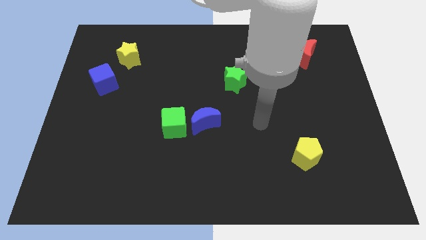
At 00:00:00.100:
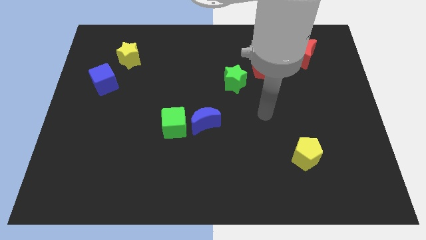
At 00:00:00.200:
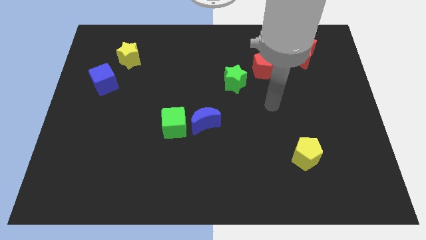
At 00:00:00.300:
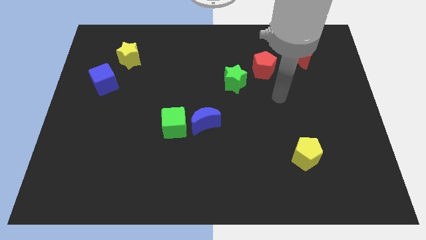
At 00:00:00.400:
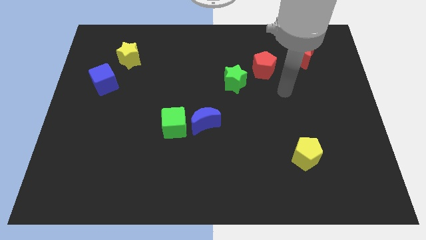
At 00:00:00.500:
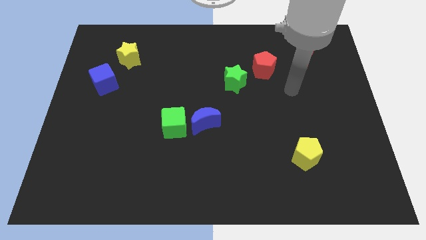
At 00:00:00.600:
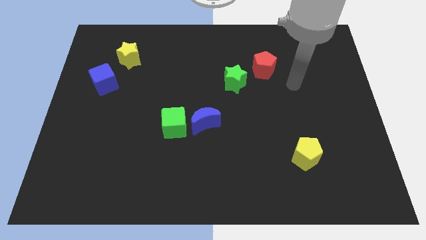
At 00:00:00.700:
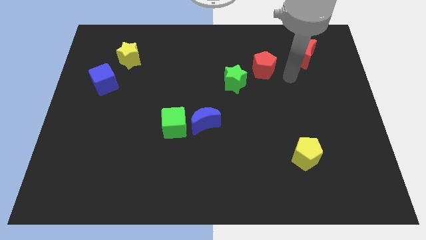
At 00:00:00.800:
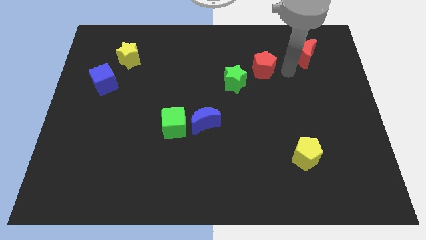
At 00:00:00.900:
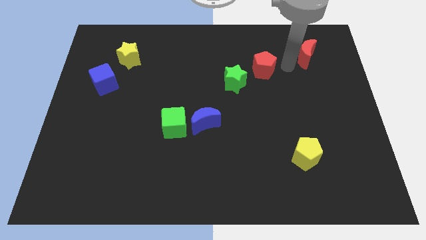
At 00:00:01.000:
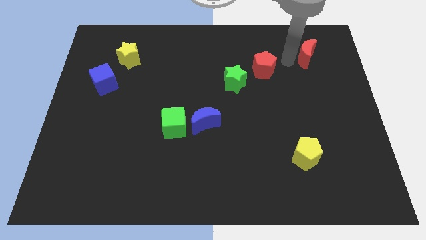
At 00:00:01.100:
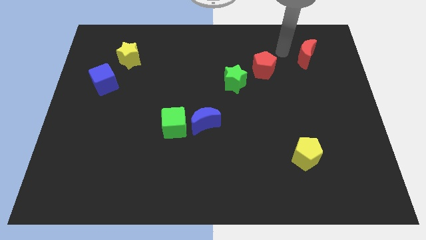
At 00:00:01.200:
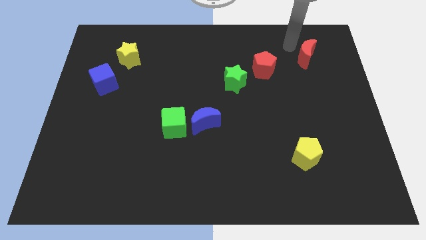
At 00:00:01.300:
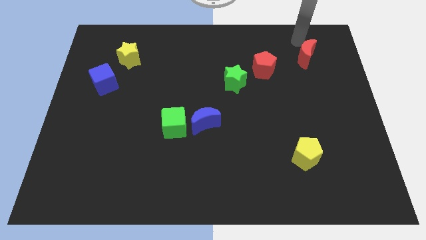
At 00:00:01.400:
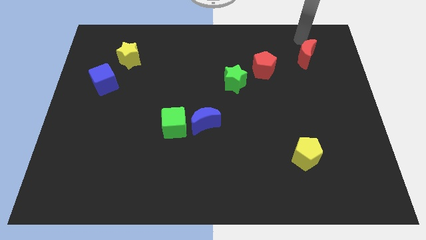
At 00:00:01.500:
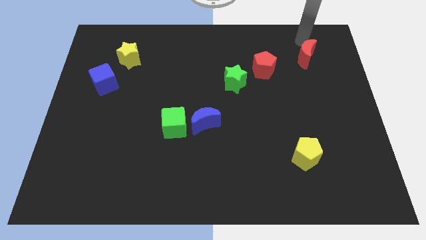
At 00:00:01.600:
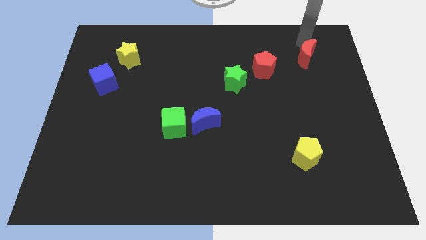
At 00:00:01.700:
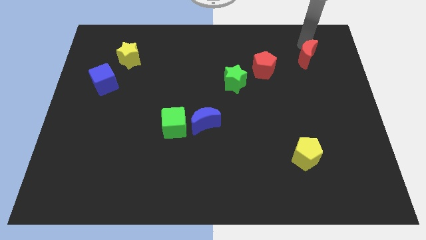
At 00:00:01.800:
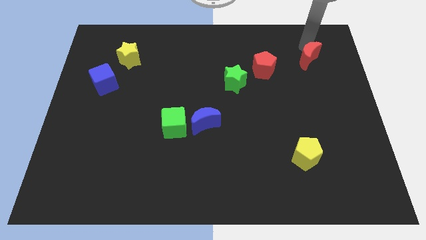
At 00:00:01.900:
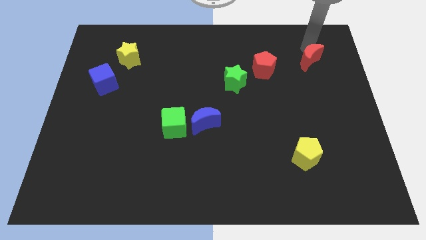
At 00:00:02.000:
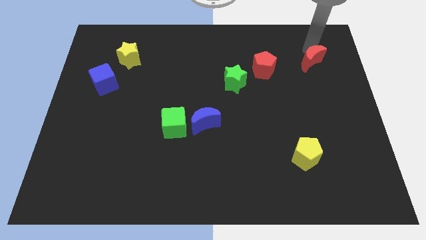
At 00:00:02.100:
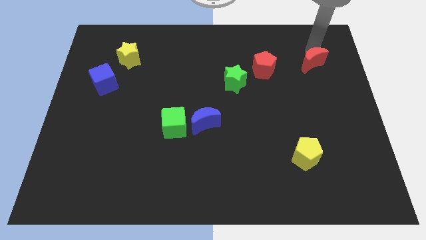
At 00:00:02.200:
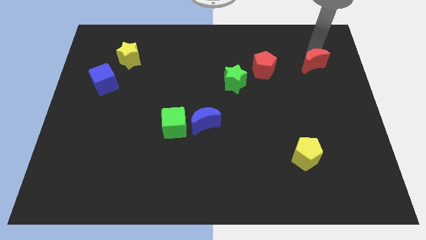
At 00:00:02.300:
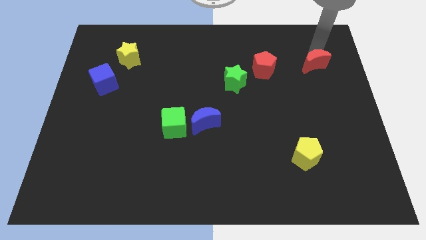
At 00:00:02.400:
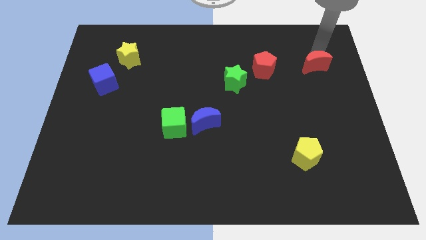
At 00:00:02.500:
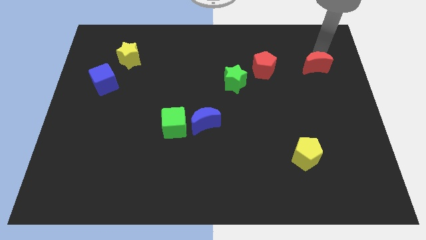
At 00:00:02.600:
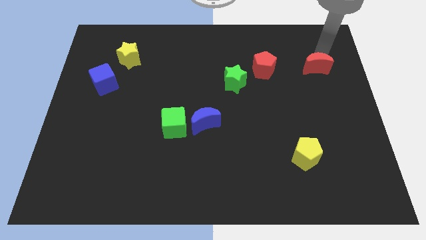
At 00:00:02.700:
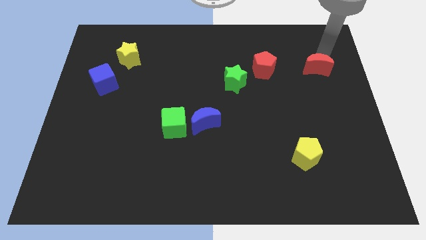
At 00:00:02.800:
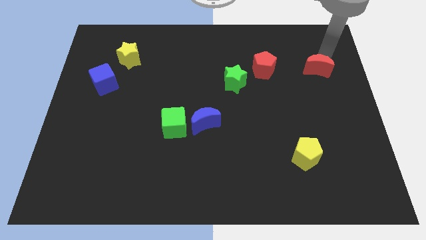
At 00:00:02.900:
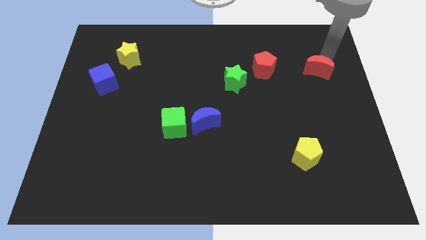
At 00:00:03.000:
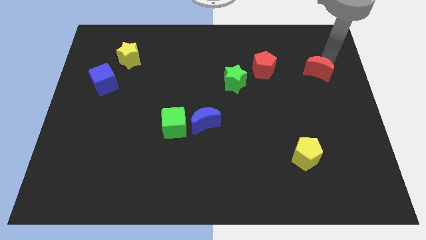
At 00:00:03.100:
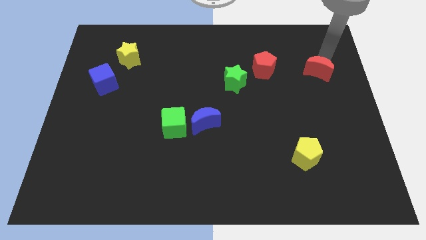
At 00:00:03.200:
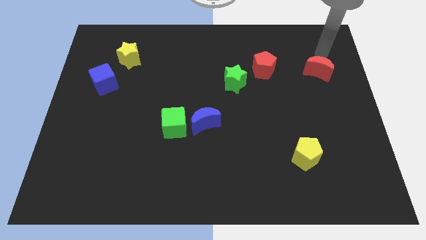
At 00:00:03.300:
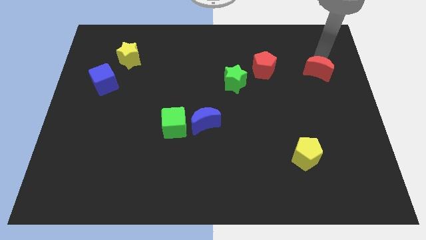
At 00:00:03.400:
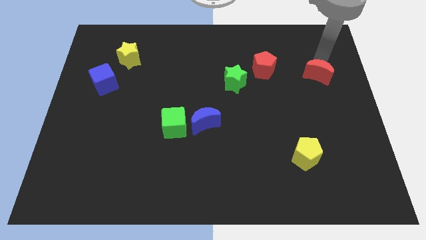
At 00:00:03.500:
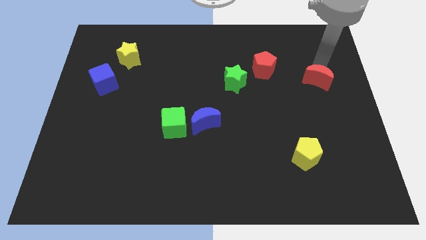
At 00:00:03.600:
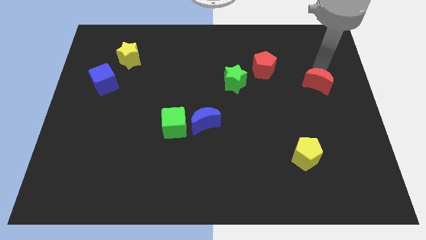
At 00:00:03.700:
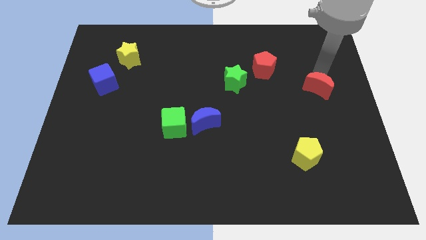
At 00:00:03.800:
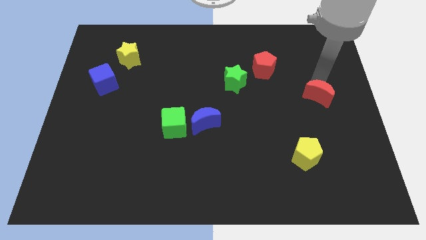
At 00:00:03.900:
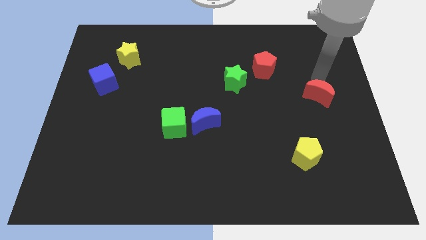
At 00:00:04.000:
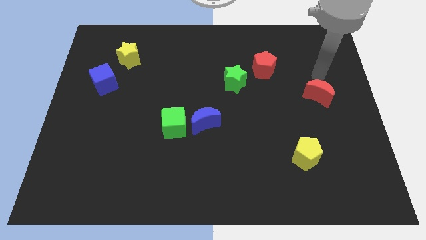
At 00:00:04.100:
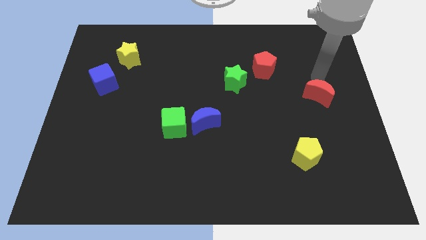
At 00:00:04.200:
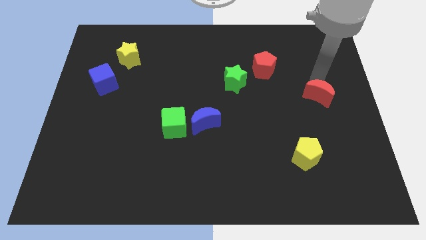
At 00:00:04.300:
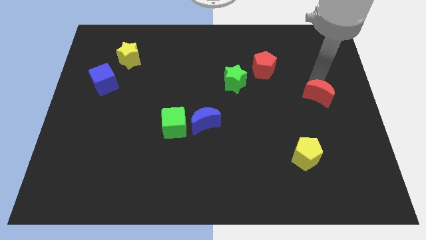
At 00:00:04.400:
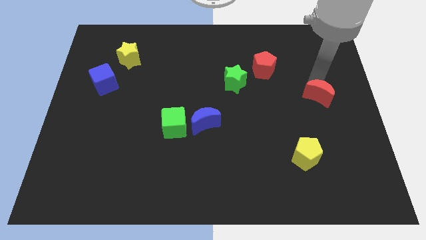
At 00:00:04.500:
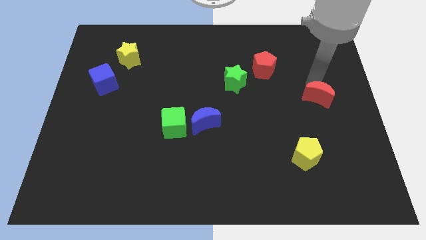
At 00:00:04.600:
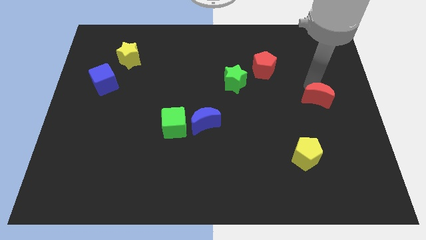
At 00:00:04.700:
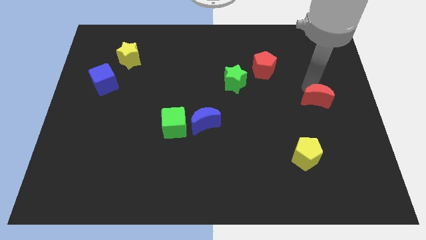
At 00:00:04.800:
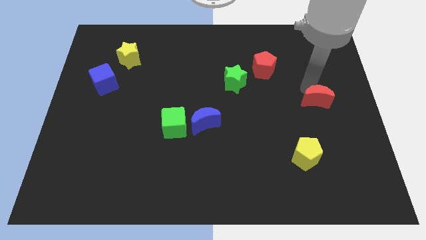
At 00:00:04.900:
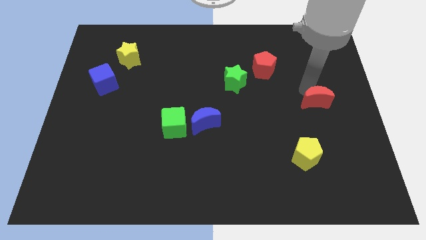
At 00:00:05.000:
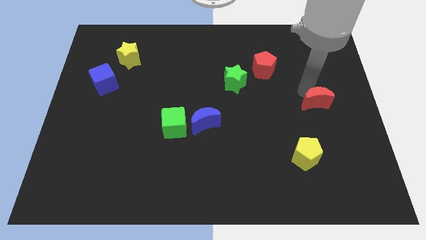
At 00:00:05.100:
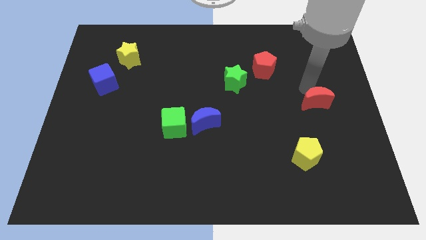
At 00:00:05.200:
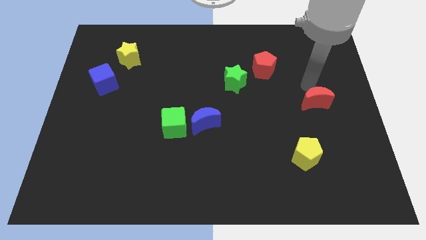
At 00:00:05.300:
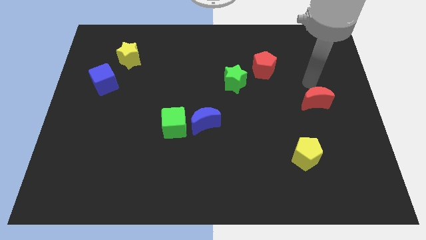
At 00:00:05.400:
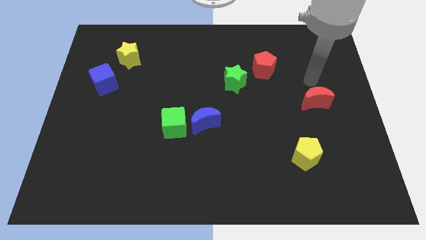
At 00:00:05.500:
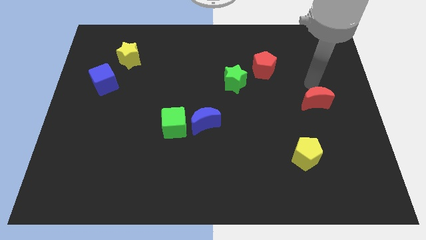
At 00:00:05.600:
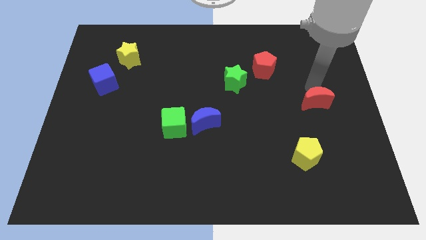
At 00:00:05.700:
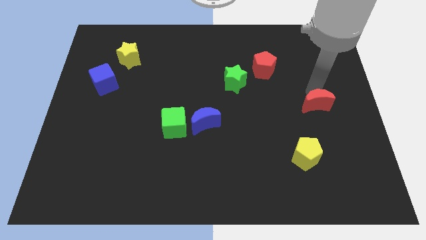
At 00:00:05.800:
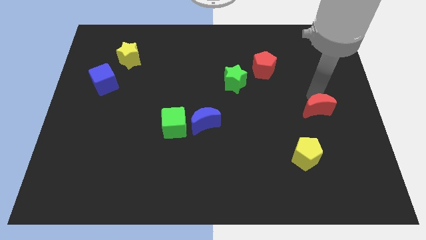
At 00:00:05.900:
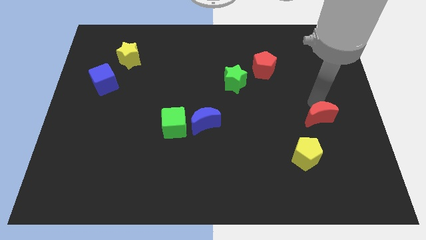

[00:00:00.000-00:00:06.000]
push the red moon down

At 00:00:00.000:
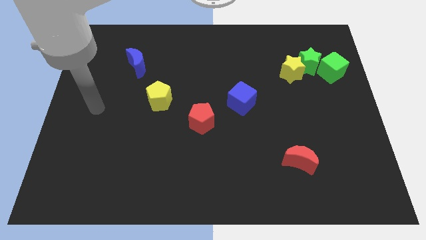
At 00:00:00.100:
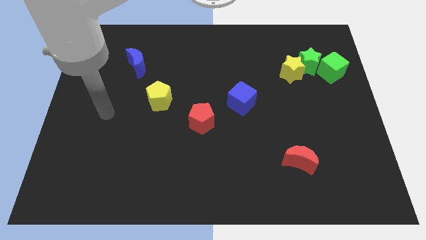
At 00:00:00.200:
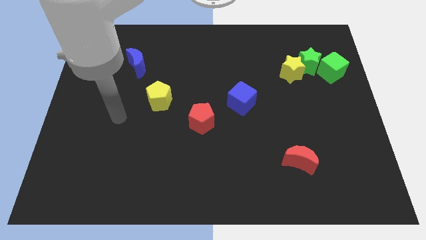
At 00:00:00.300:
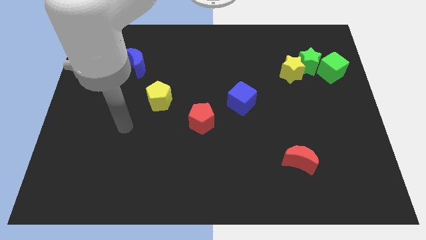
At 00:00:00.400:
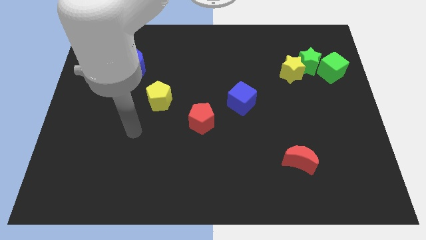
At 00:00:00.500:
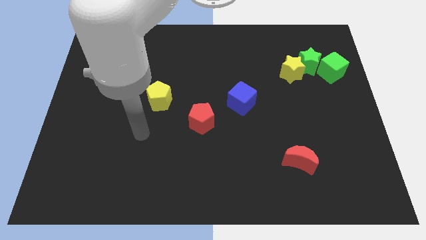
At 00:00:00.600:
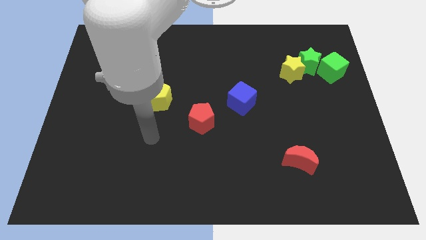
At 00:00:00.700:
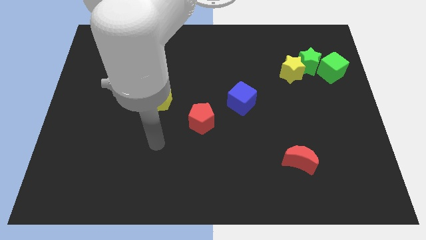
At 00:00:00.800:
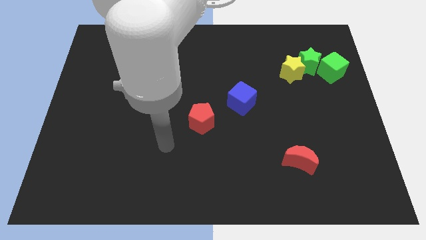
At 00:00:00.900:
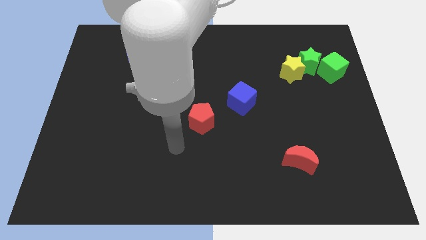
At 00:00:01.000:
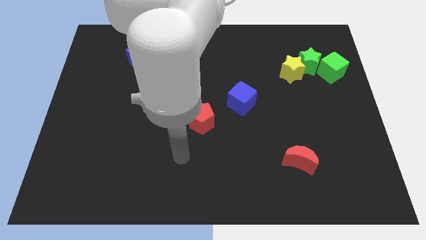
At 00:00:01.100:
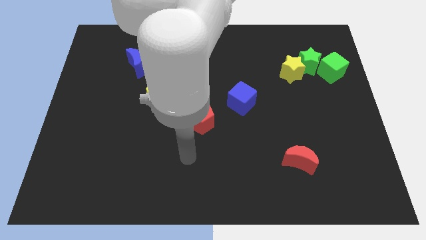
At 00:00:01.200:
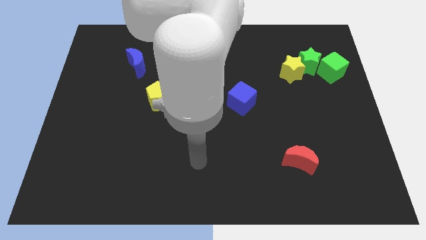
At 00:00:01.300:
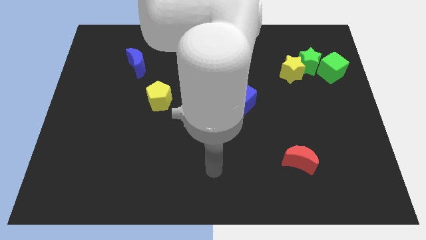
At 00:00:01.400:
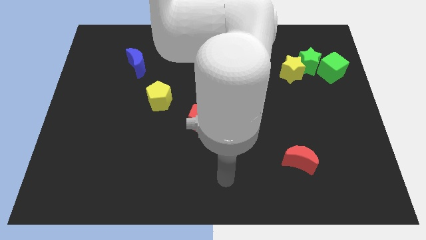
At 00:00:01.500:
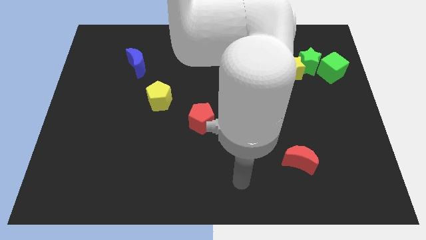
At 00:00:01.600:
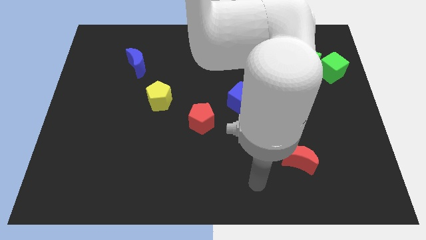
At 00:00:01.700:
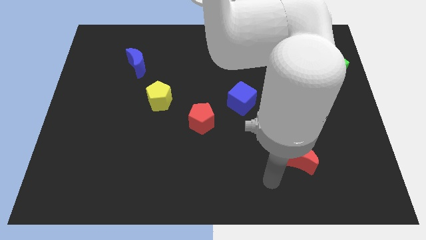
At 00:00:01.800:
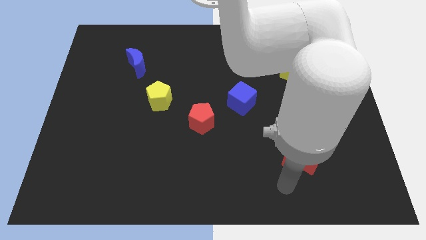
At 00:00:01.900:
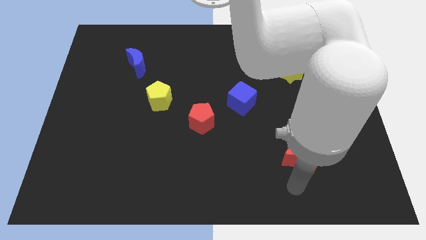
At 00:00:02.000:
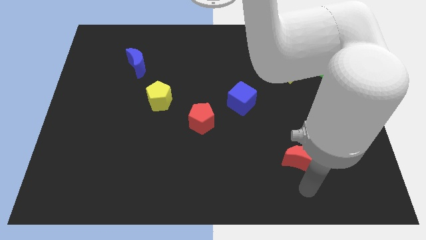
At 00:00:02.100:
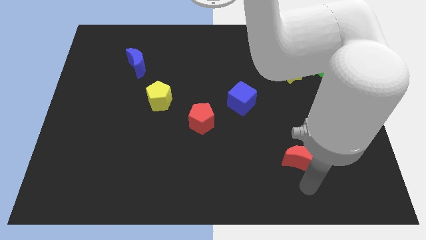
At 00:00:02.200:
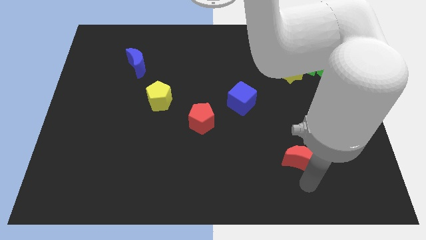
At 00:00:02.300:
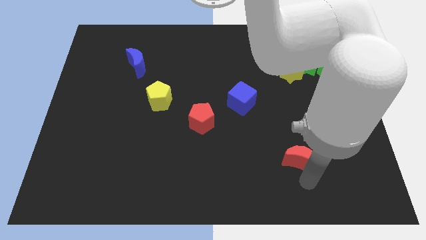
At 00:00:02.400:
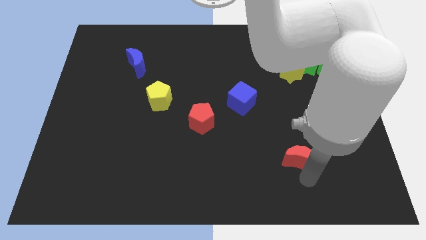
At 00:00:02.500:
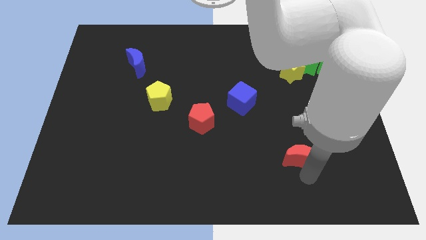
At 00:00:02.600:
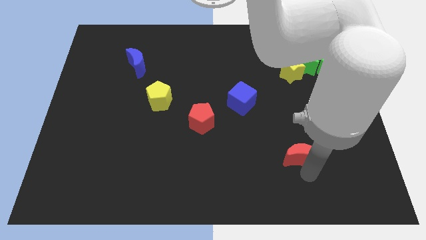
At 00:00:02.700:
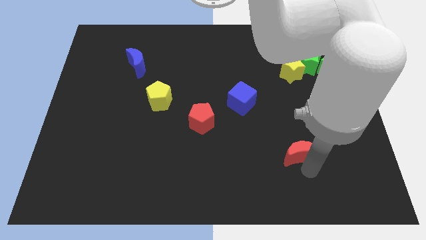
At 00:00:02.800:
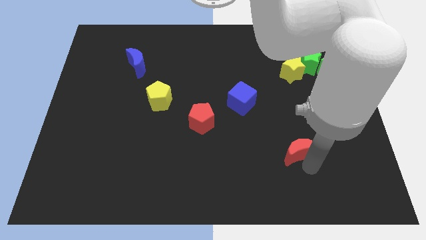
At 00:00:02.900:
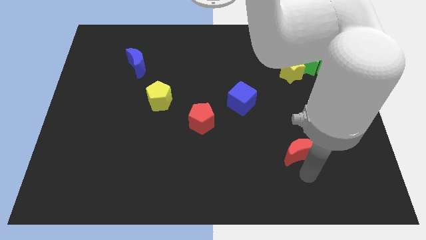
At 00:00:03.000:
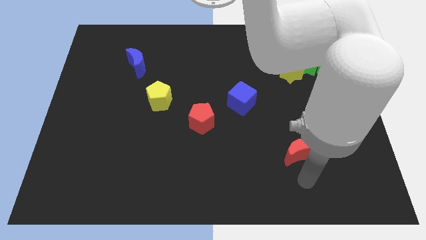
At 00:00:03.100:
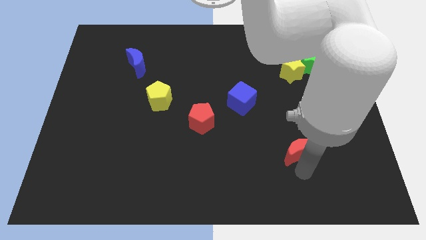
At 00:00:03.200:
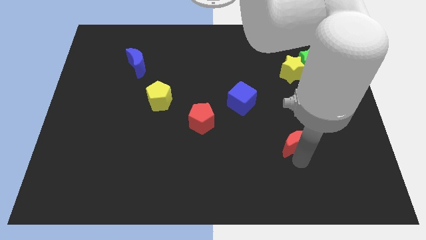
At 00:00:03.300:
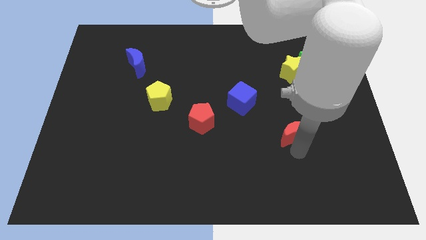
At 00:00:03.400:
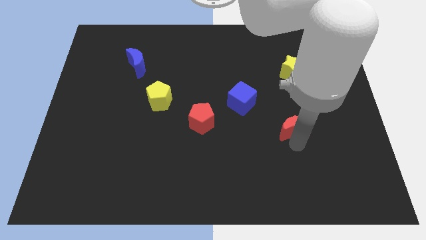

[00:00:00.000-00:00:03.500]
slightly push the red moon up
